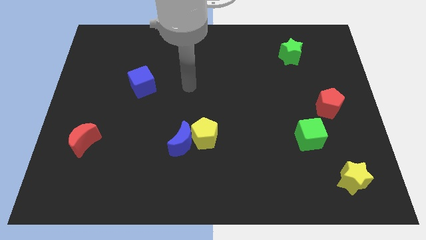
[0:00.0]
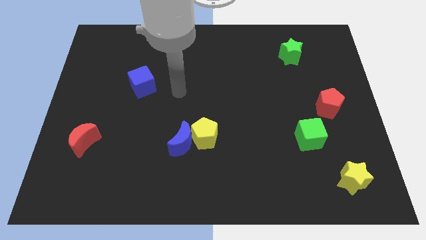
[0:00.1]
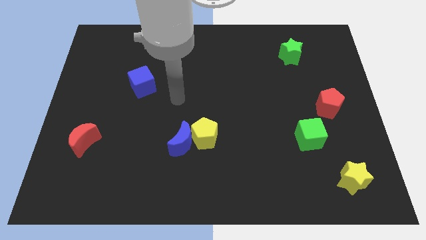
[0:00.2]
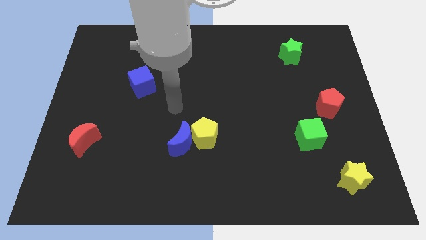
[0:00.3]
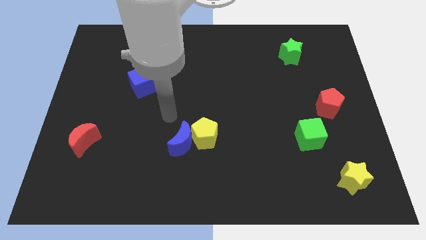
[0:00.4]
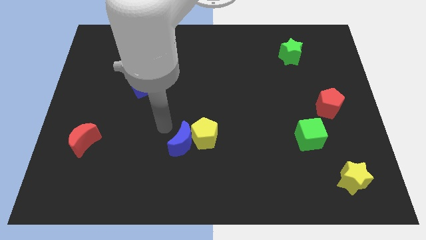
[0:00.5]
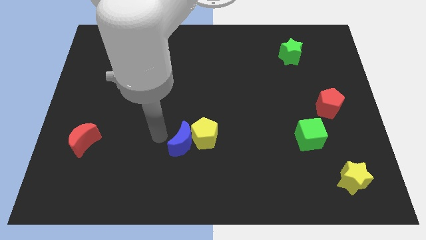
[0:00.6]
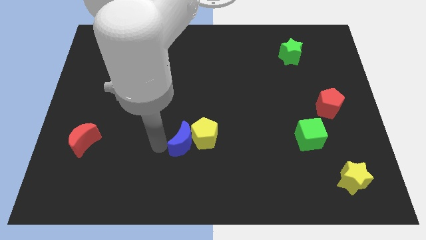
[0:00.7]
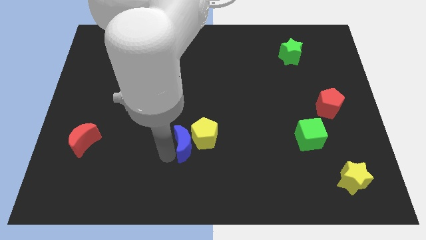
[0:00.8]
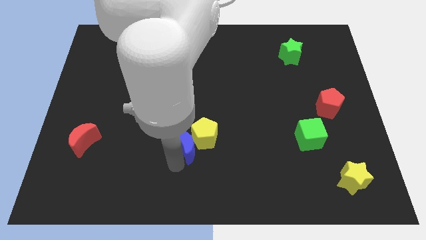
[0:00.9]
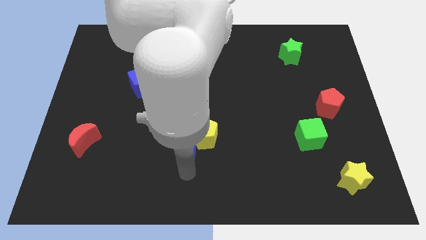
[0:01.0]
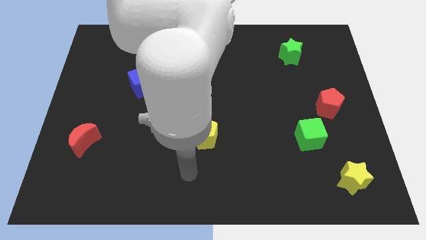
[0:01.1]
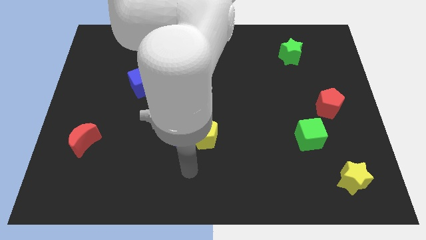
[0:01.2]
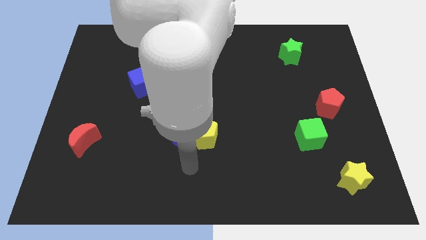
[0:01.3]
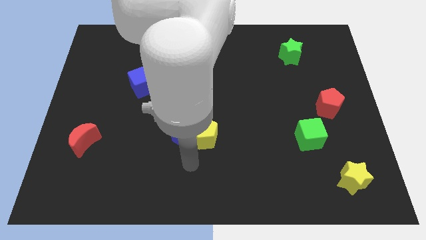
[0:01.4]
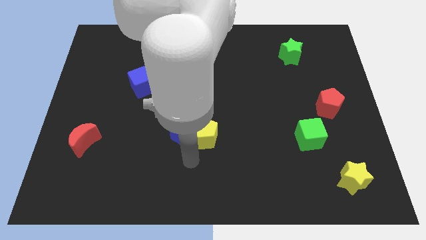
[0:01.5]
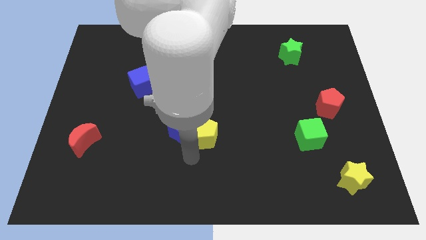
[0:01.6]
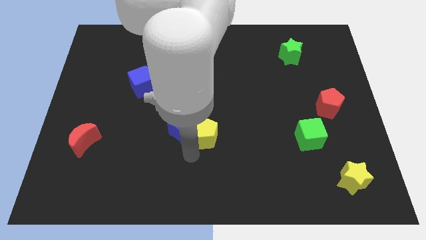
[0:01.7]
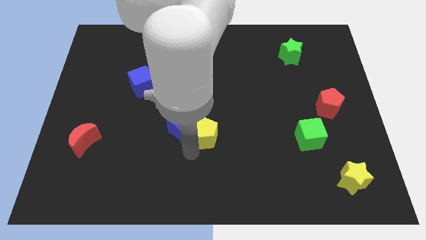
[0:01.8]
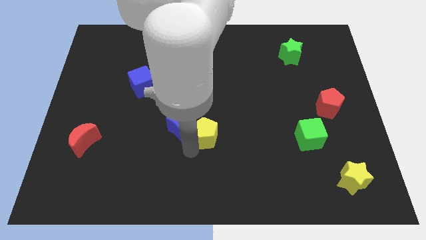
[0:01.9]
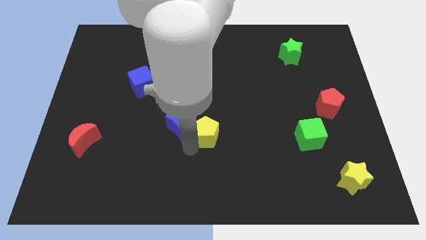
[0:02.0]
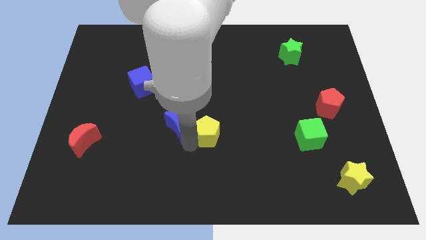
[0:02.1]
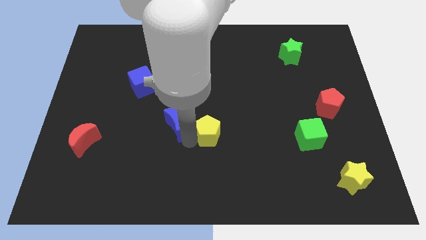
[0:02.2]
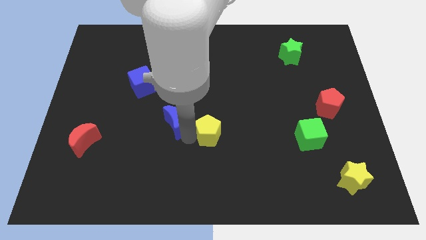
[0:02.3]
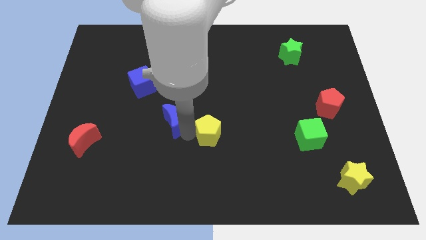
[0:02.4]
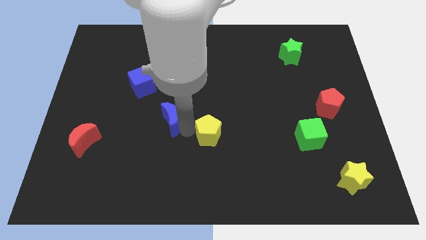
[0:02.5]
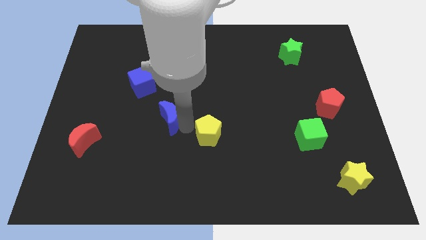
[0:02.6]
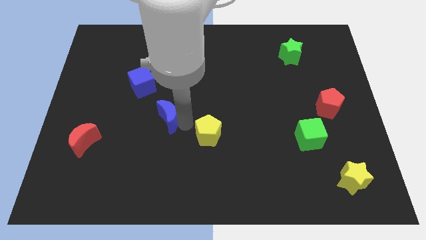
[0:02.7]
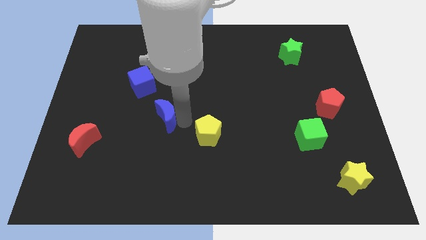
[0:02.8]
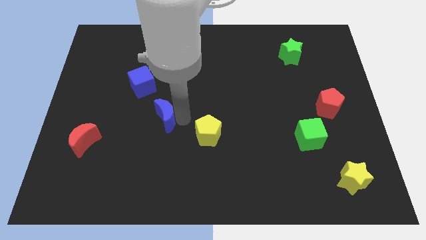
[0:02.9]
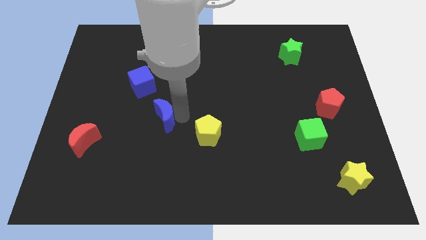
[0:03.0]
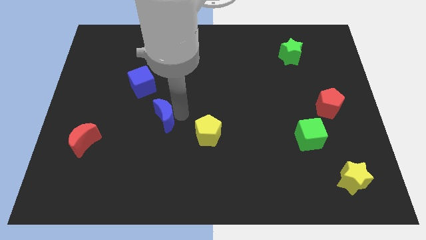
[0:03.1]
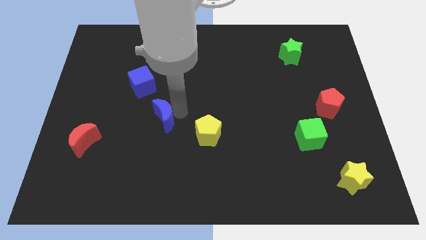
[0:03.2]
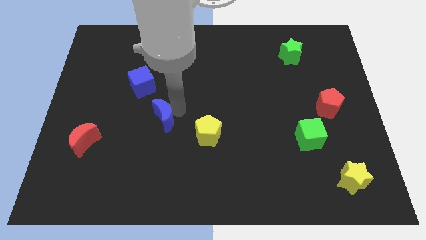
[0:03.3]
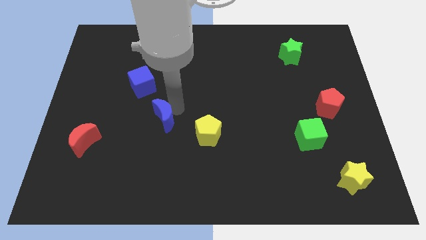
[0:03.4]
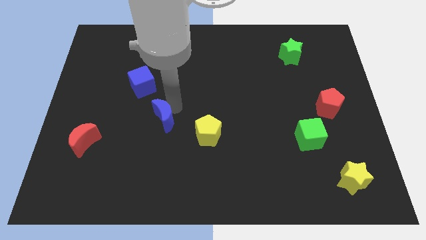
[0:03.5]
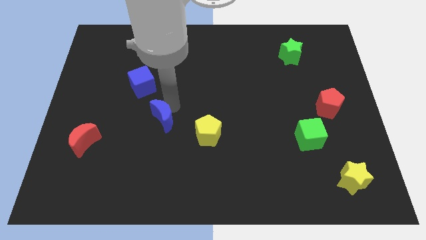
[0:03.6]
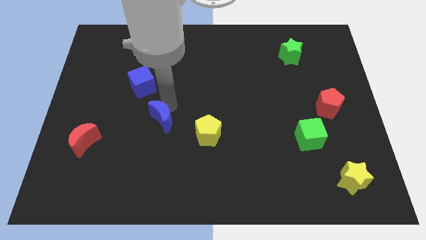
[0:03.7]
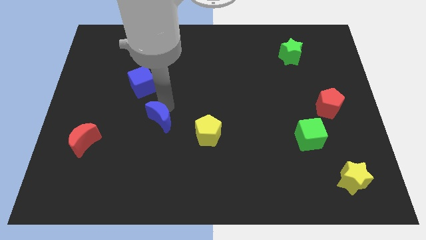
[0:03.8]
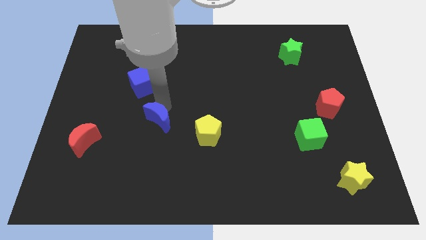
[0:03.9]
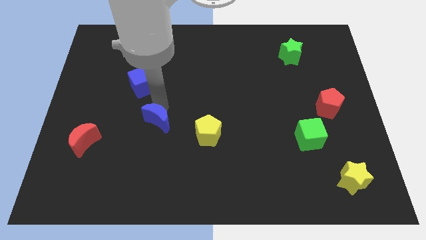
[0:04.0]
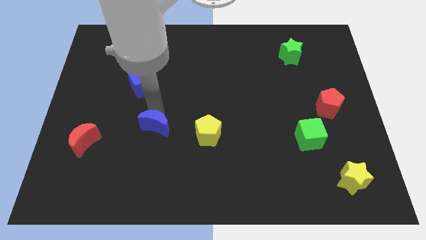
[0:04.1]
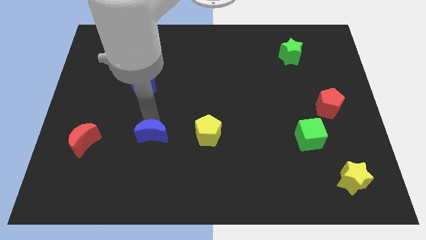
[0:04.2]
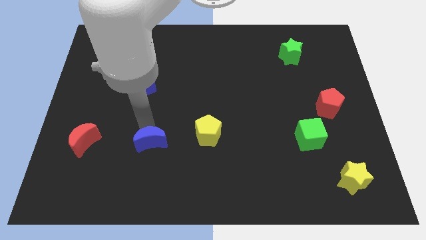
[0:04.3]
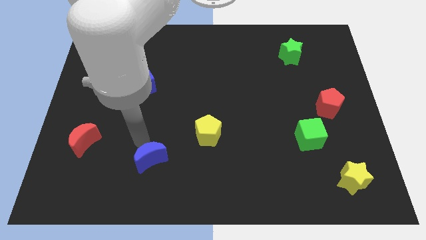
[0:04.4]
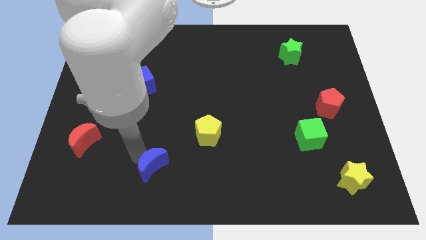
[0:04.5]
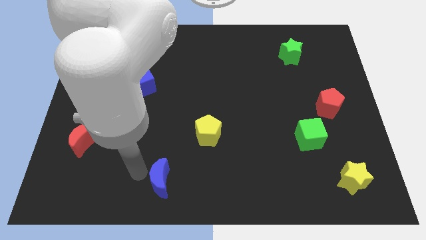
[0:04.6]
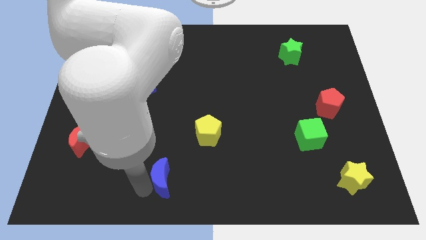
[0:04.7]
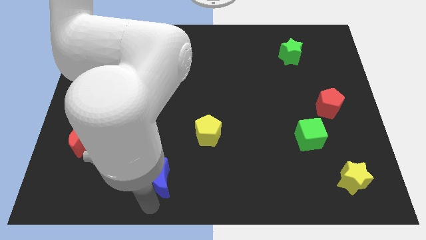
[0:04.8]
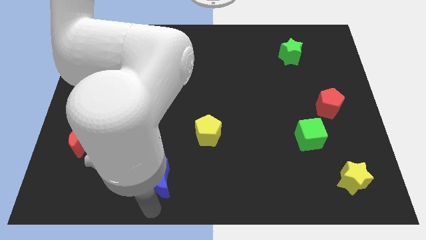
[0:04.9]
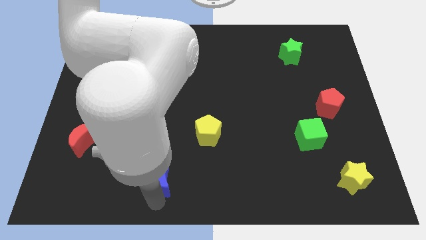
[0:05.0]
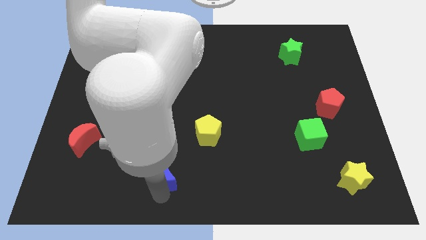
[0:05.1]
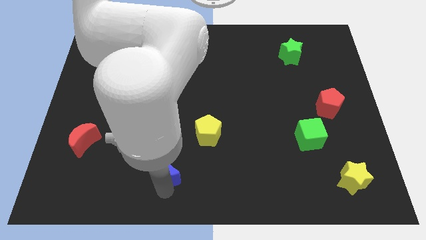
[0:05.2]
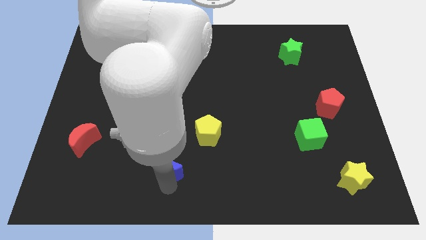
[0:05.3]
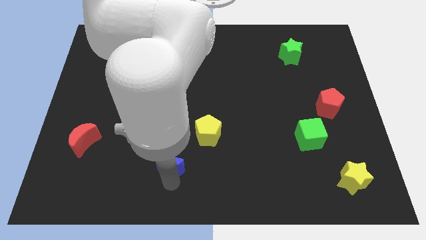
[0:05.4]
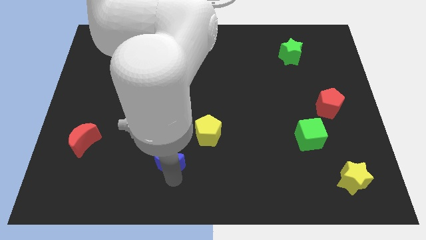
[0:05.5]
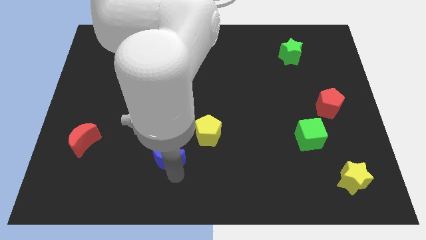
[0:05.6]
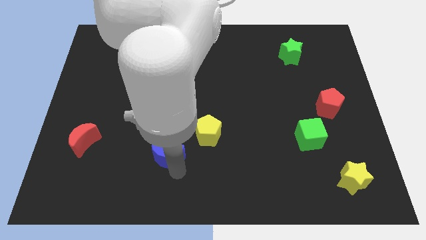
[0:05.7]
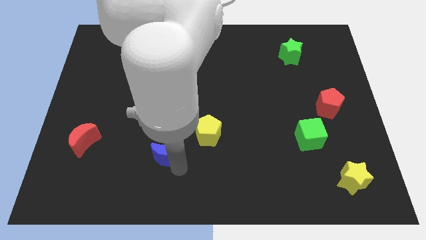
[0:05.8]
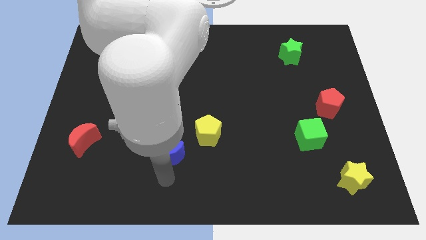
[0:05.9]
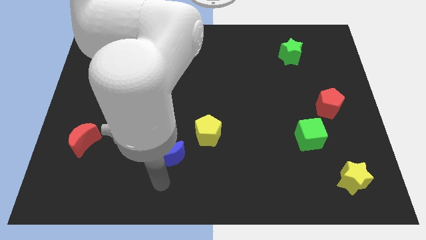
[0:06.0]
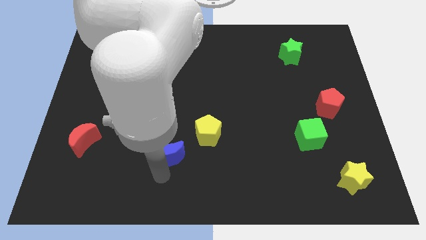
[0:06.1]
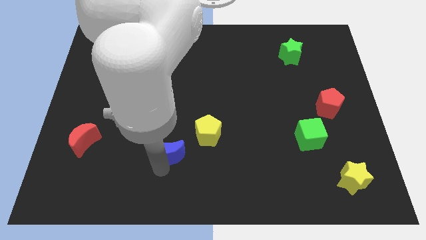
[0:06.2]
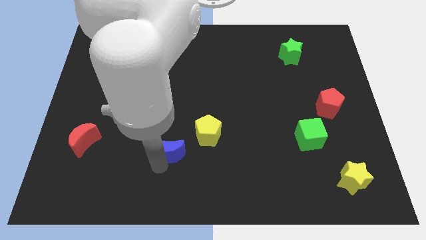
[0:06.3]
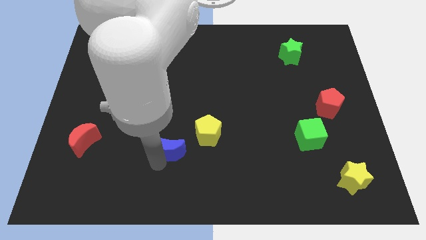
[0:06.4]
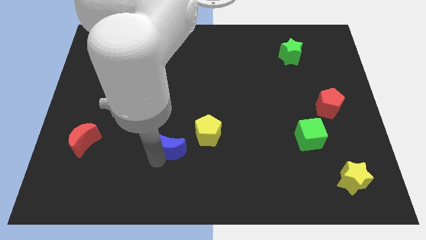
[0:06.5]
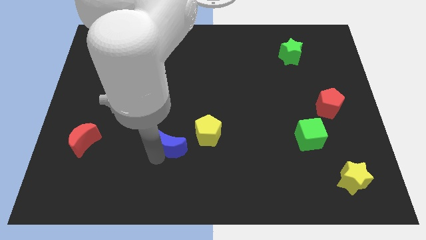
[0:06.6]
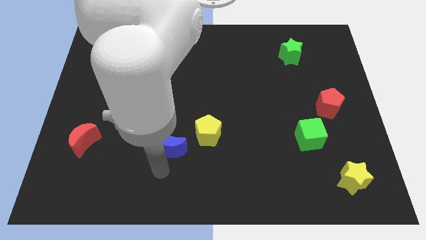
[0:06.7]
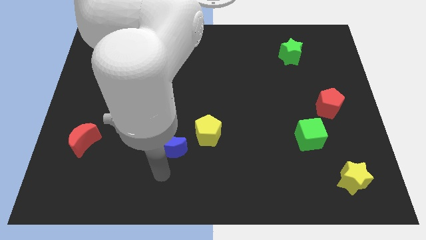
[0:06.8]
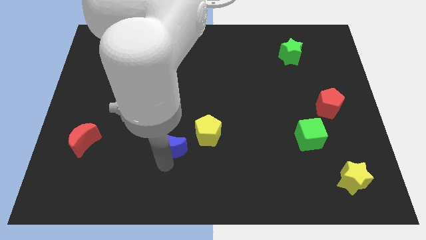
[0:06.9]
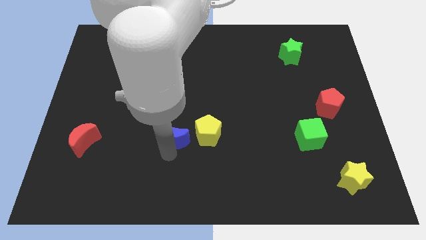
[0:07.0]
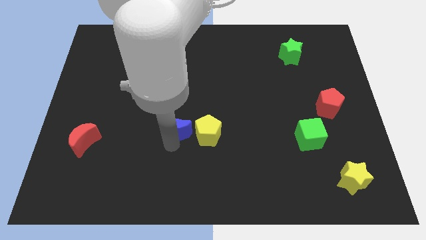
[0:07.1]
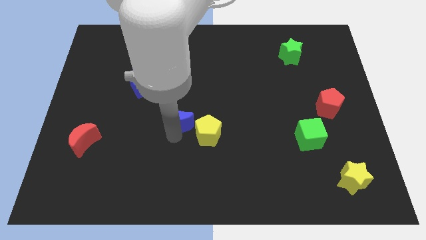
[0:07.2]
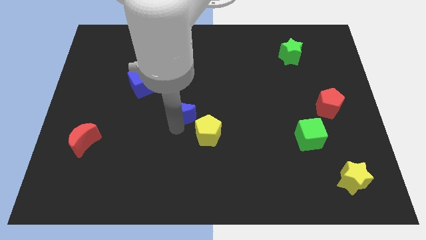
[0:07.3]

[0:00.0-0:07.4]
move the blue moon a little up

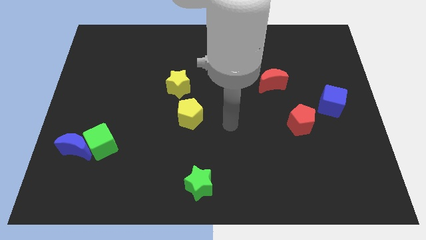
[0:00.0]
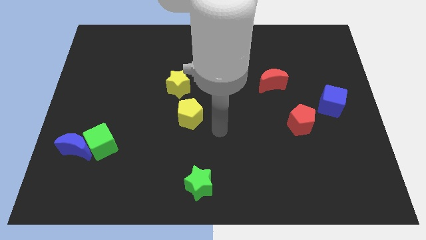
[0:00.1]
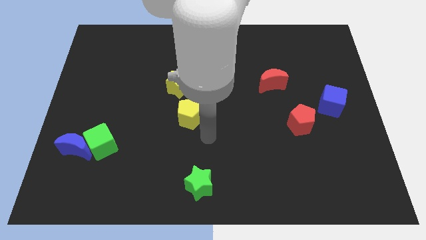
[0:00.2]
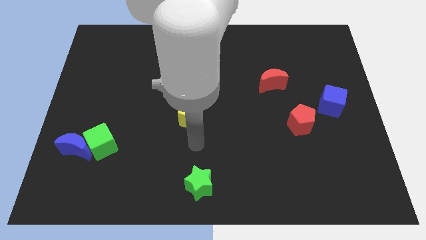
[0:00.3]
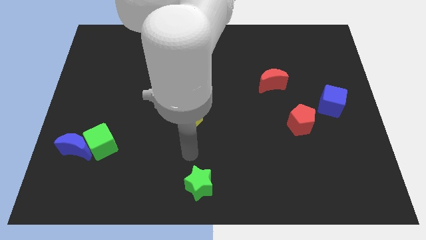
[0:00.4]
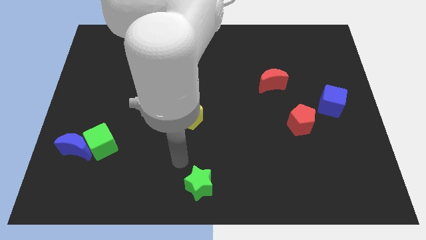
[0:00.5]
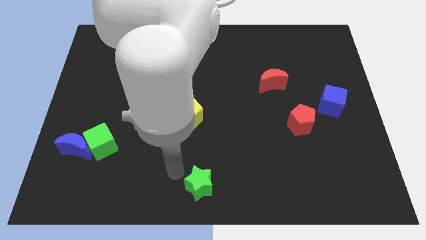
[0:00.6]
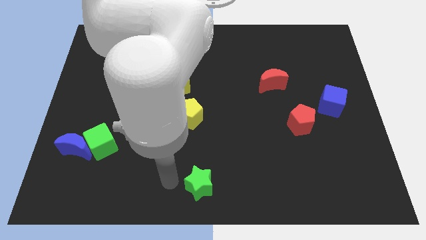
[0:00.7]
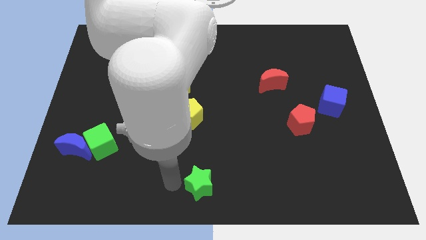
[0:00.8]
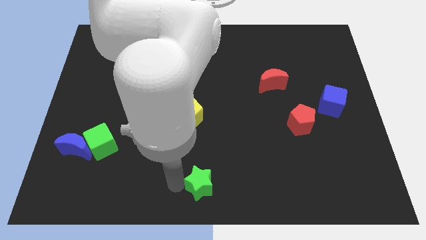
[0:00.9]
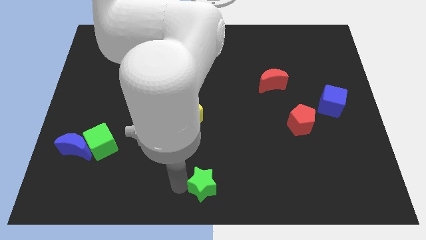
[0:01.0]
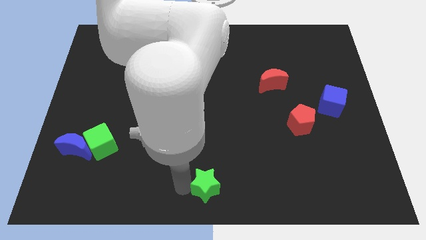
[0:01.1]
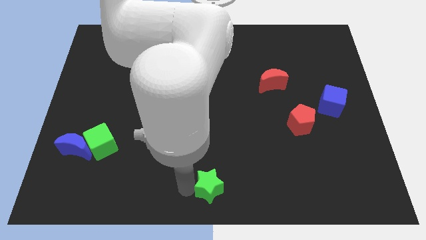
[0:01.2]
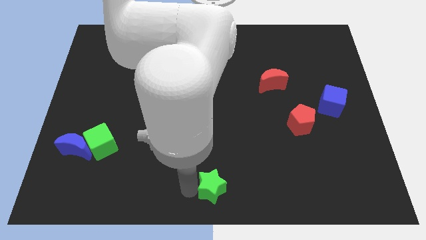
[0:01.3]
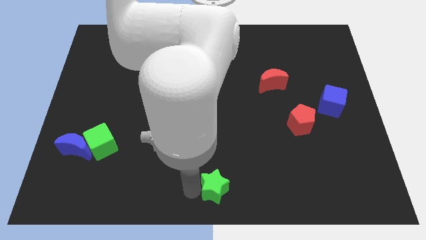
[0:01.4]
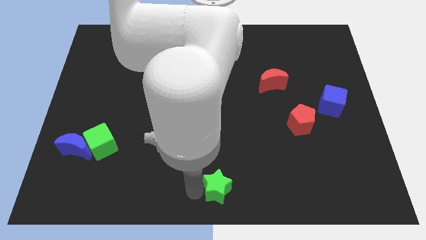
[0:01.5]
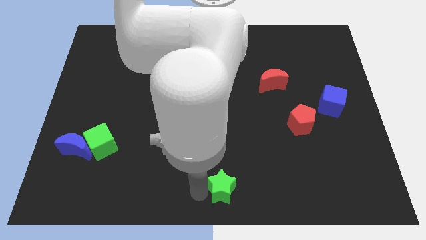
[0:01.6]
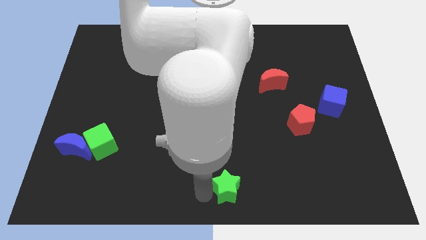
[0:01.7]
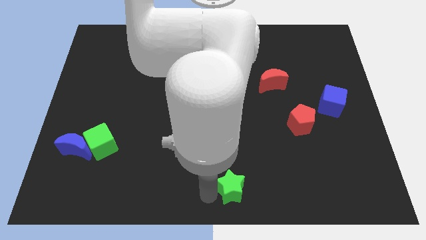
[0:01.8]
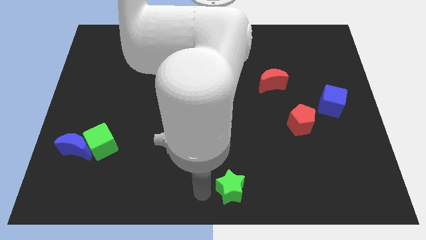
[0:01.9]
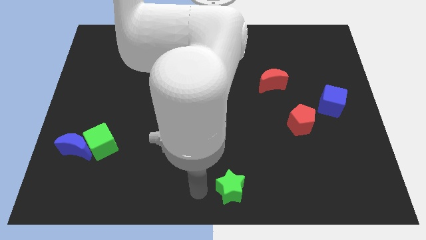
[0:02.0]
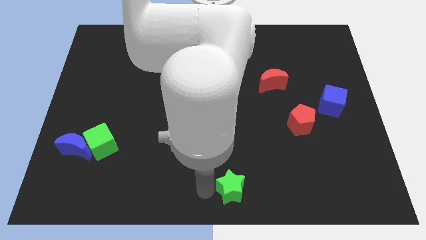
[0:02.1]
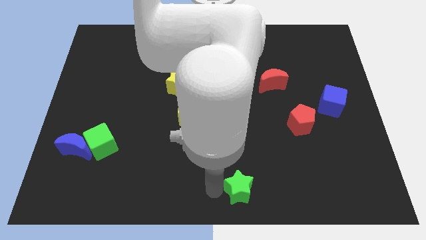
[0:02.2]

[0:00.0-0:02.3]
slightly move the green star to the right
